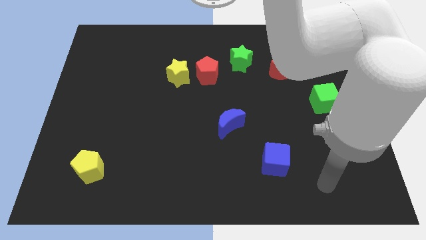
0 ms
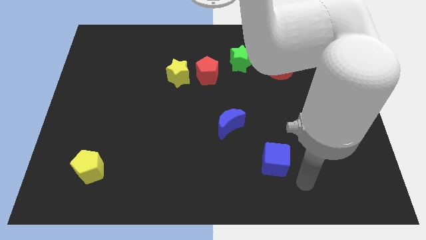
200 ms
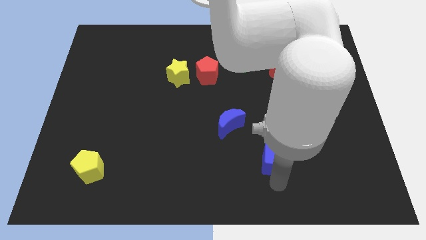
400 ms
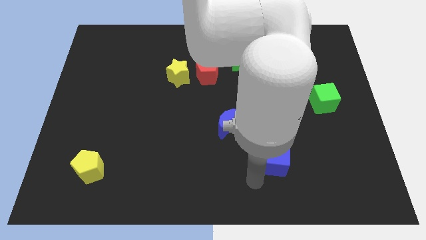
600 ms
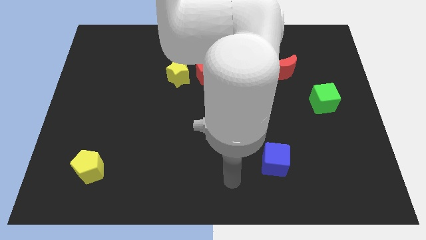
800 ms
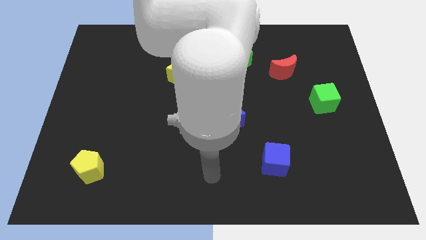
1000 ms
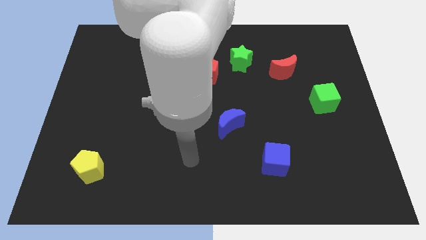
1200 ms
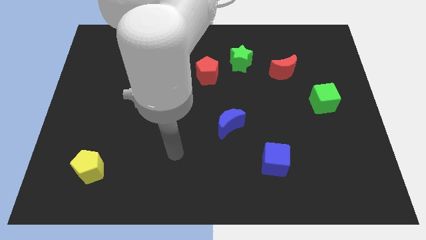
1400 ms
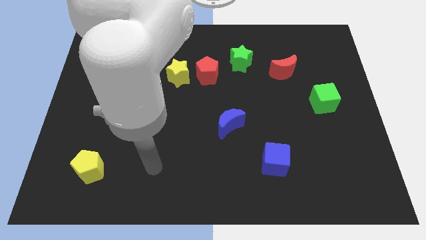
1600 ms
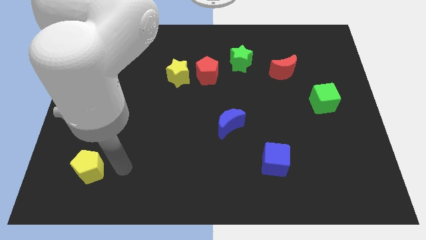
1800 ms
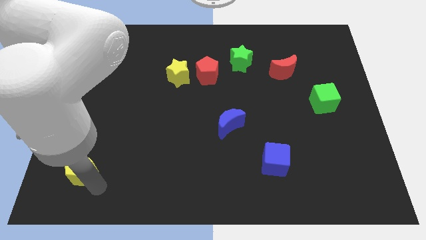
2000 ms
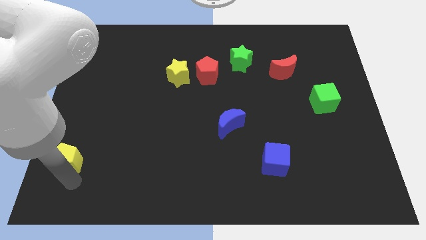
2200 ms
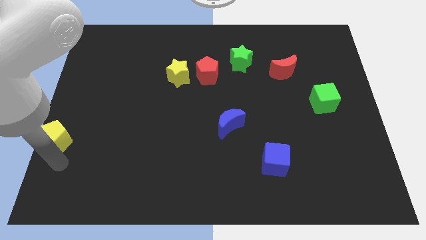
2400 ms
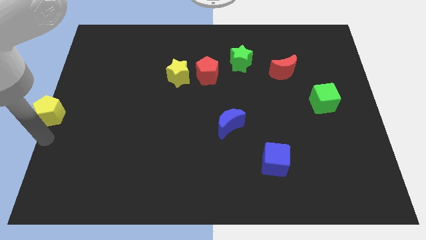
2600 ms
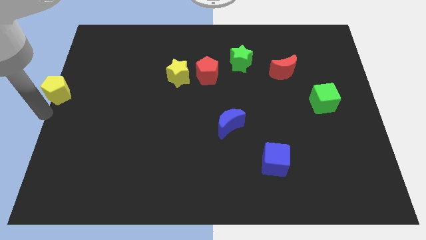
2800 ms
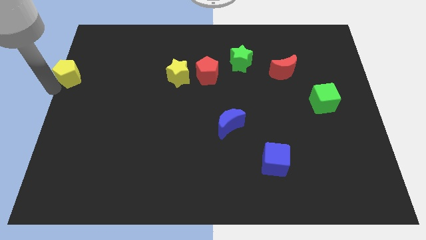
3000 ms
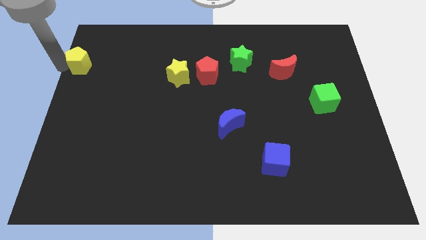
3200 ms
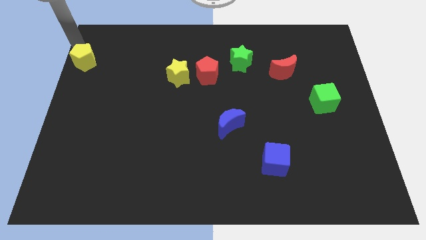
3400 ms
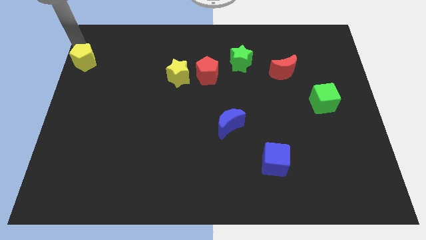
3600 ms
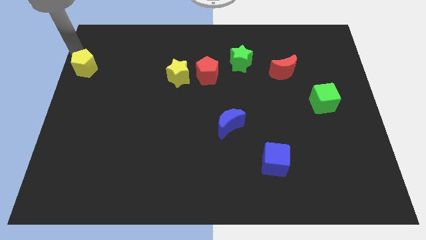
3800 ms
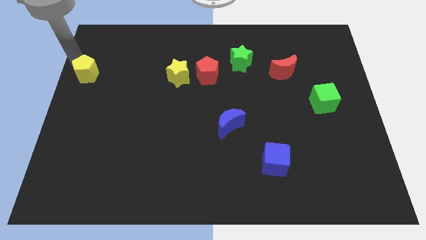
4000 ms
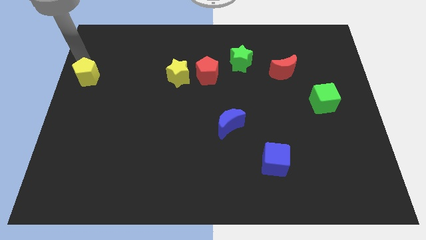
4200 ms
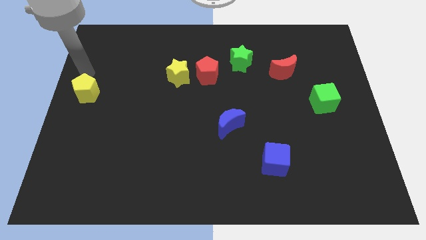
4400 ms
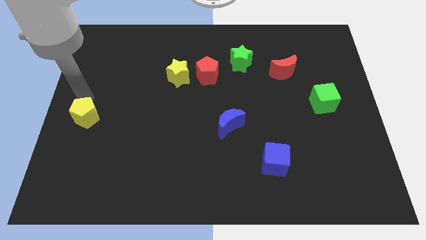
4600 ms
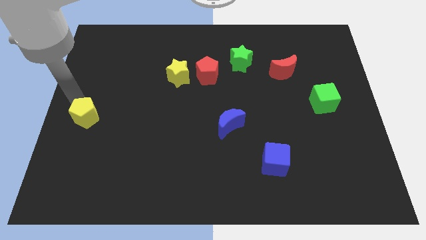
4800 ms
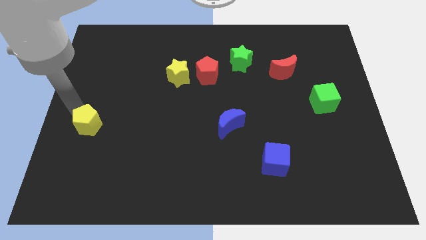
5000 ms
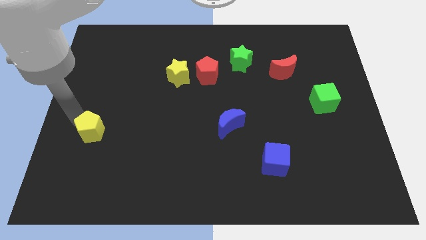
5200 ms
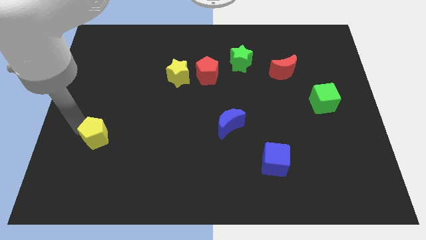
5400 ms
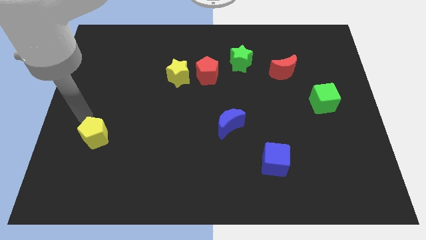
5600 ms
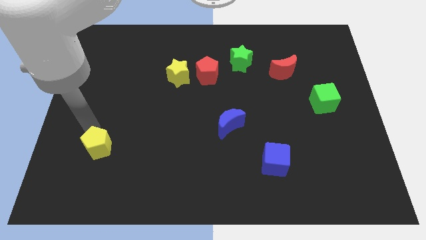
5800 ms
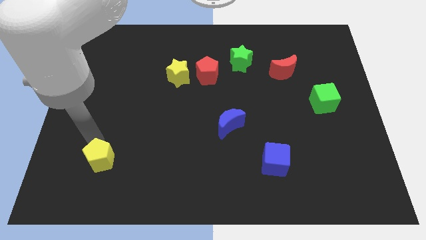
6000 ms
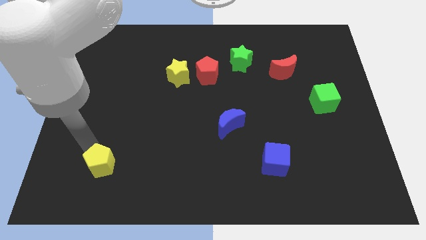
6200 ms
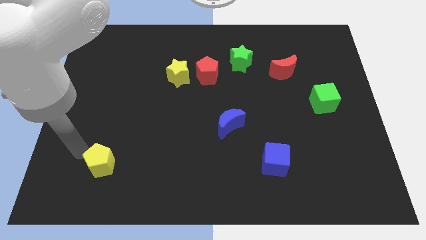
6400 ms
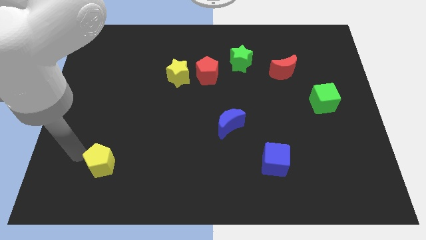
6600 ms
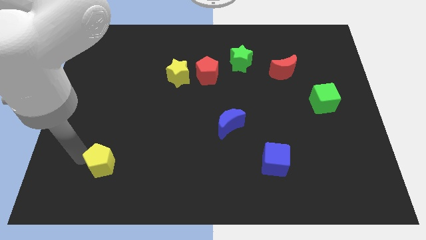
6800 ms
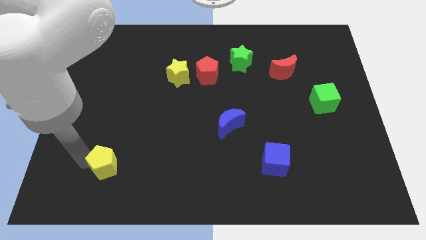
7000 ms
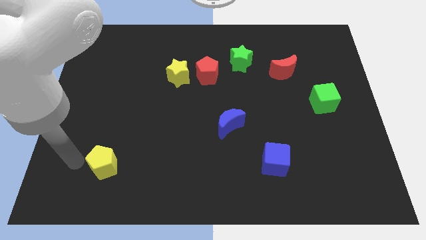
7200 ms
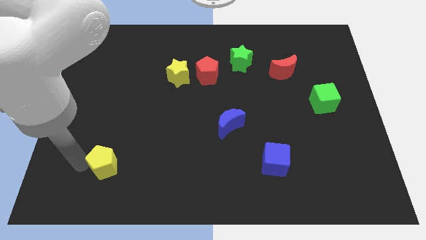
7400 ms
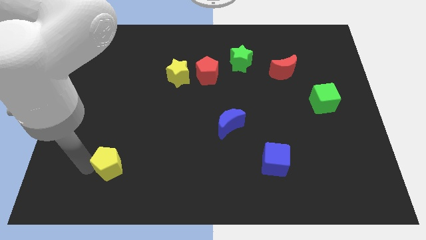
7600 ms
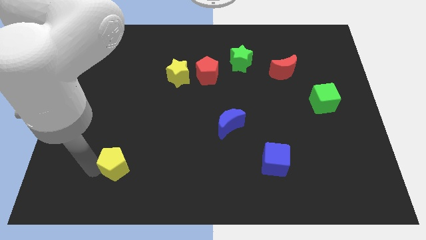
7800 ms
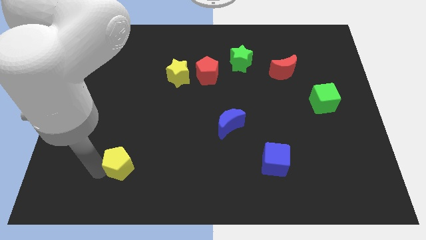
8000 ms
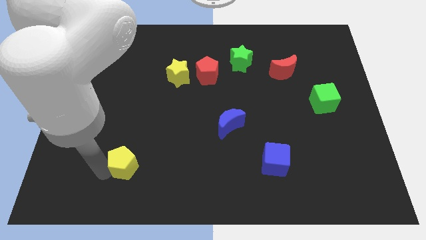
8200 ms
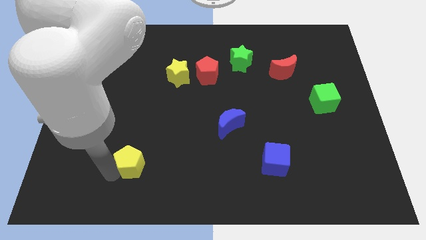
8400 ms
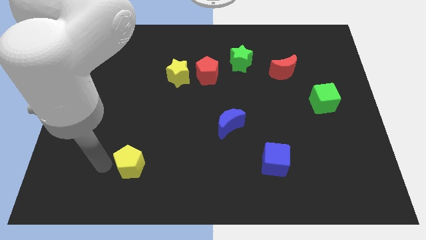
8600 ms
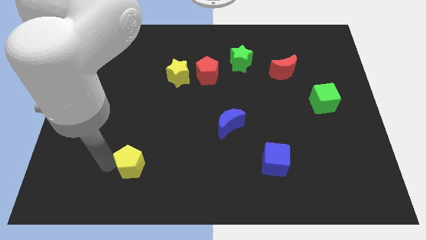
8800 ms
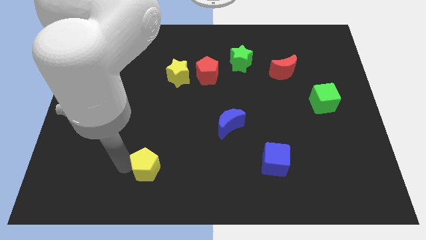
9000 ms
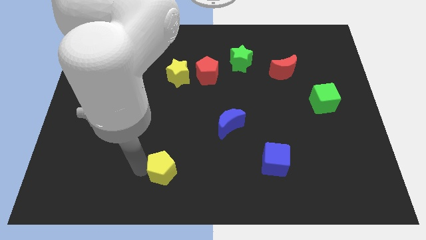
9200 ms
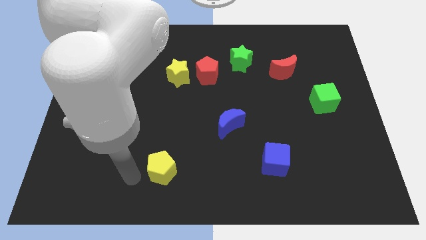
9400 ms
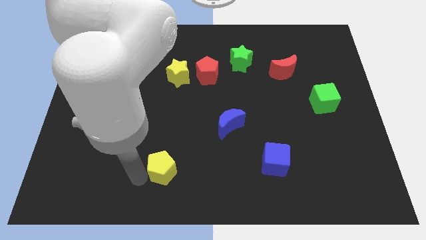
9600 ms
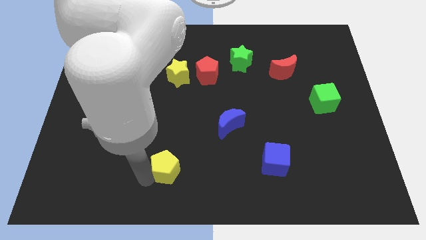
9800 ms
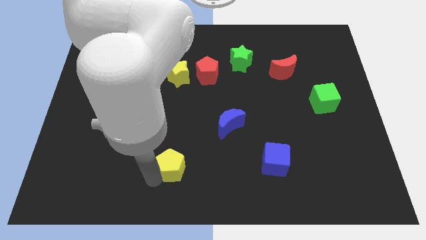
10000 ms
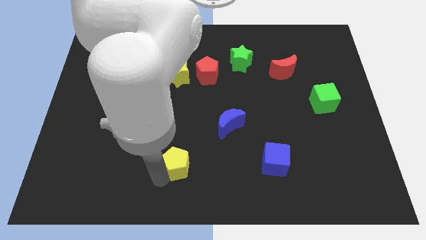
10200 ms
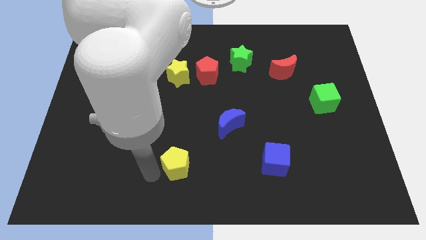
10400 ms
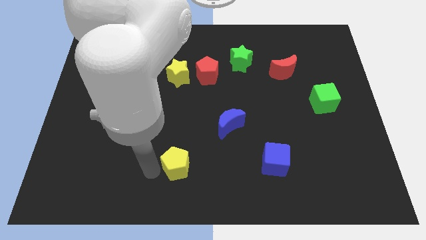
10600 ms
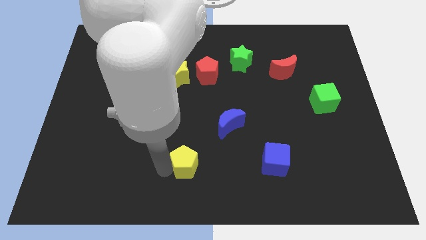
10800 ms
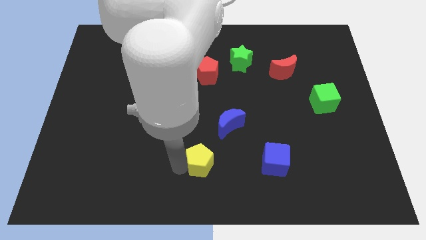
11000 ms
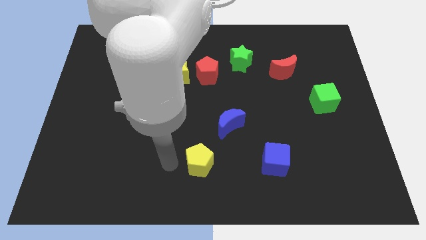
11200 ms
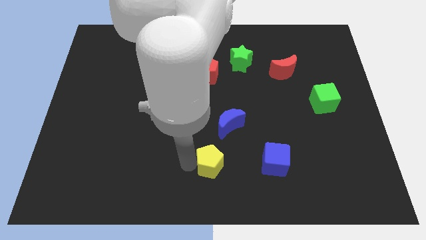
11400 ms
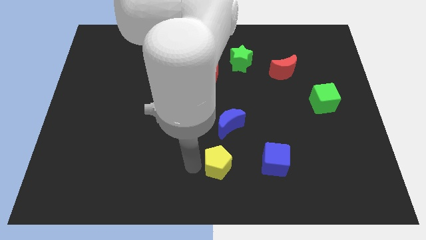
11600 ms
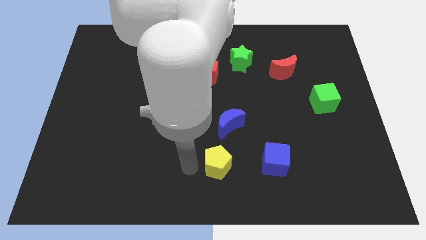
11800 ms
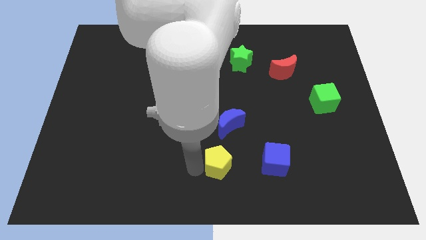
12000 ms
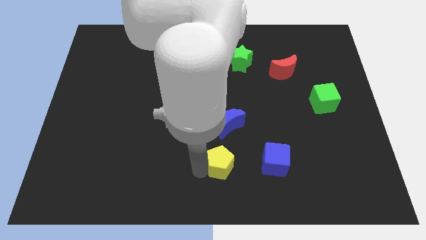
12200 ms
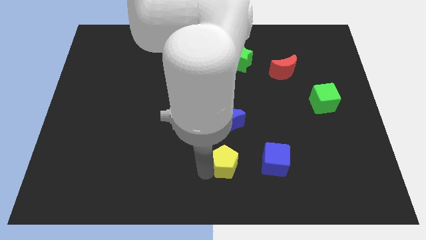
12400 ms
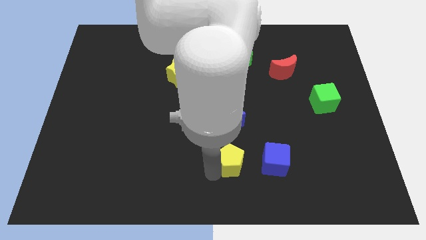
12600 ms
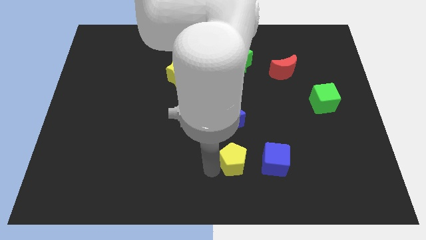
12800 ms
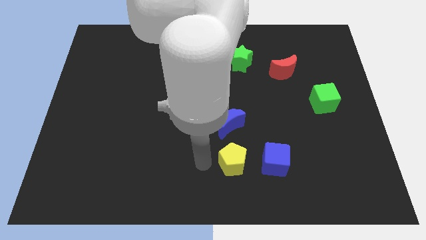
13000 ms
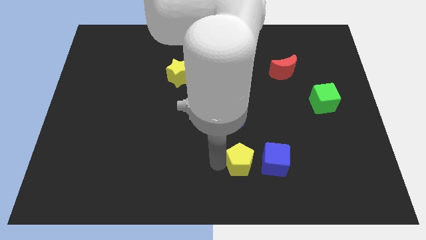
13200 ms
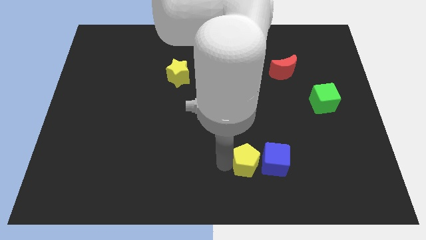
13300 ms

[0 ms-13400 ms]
put the yellow pentagon close to the blue cube

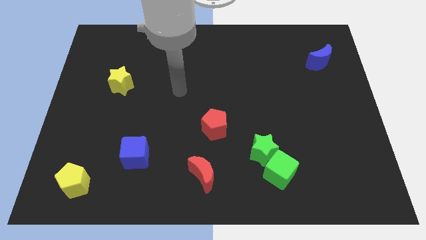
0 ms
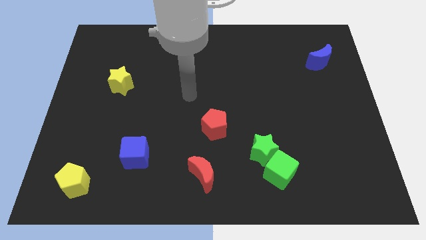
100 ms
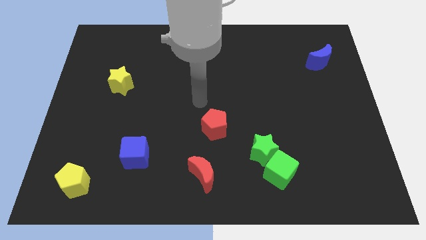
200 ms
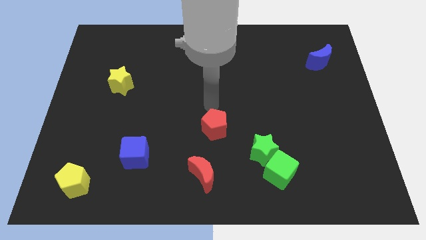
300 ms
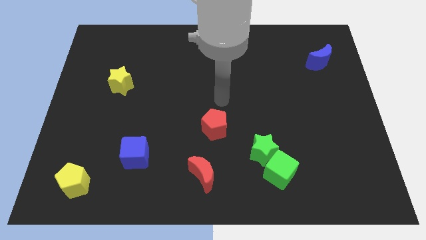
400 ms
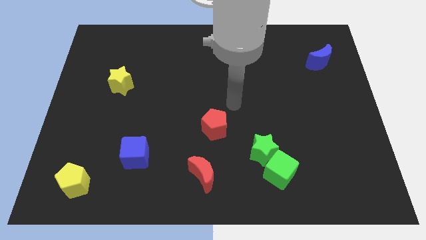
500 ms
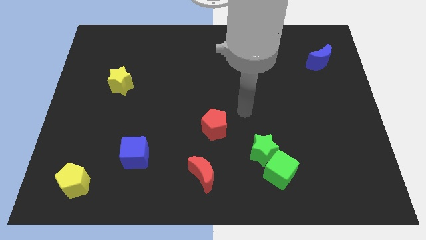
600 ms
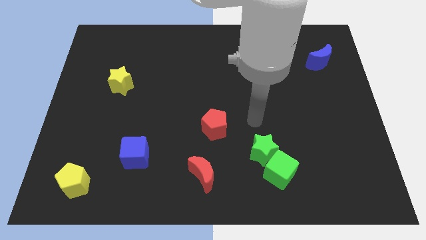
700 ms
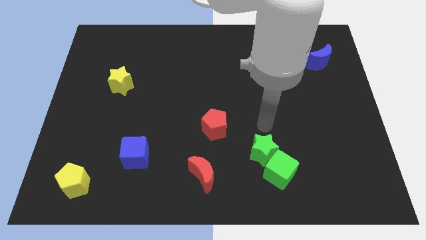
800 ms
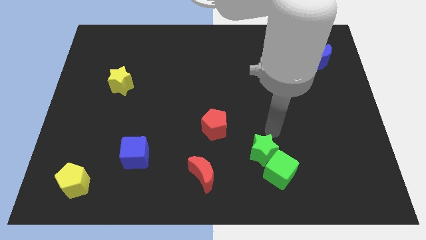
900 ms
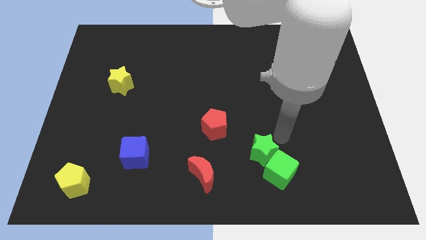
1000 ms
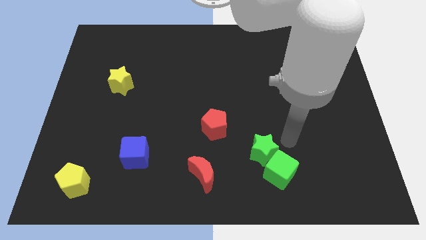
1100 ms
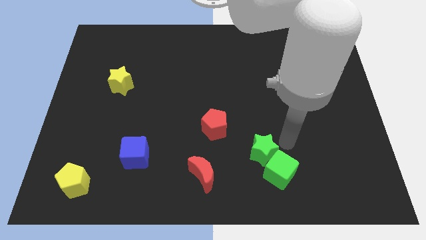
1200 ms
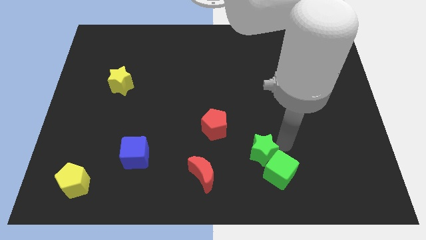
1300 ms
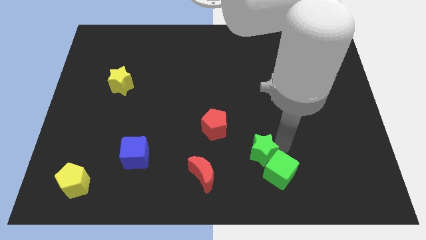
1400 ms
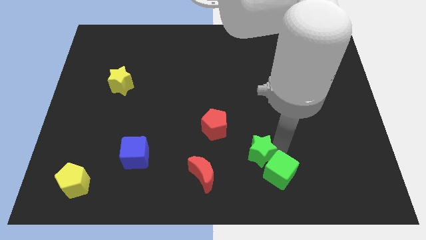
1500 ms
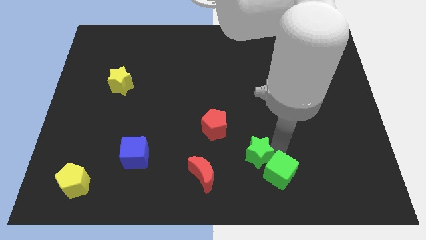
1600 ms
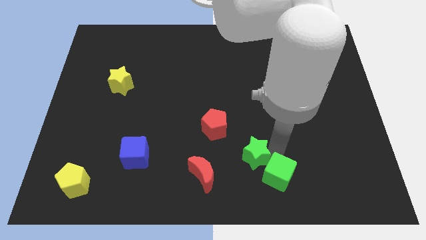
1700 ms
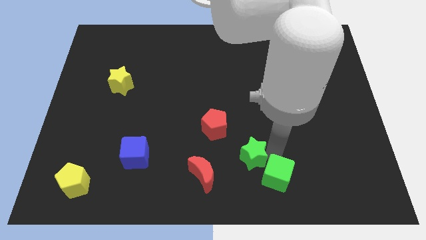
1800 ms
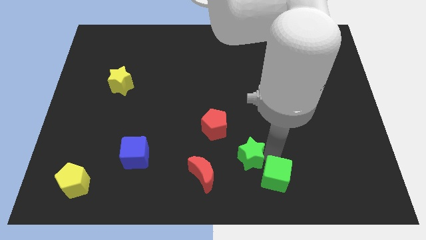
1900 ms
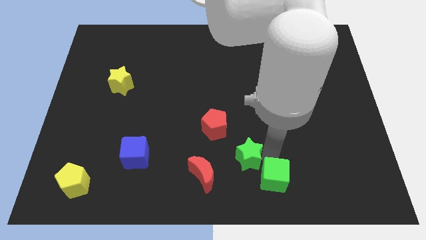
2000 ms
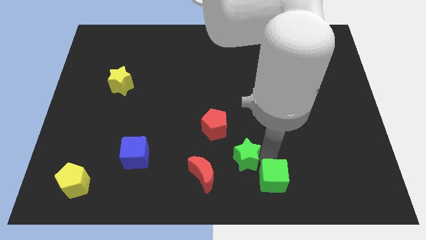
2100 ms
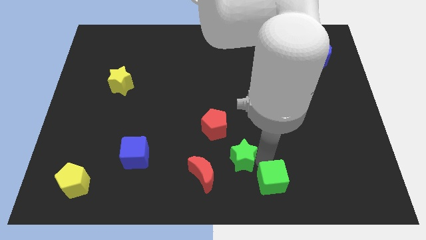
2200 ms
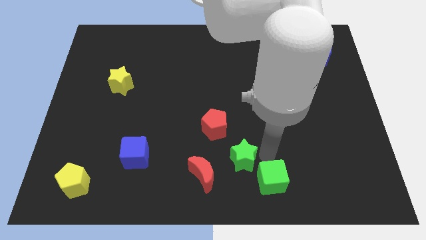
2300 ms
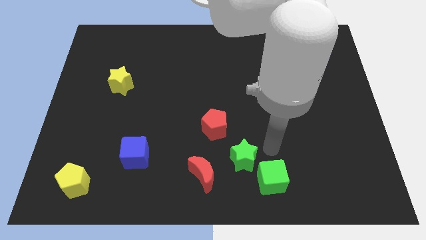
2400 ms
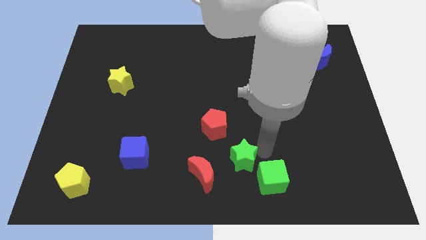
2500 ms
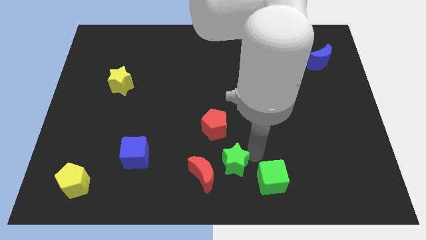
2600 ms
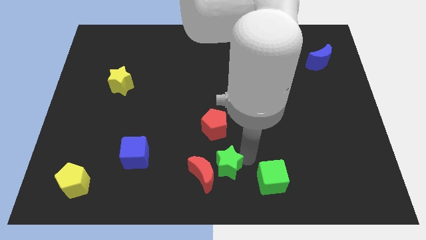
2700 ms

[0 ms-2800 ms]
slide the green star next to the red moon
